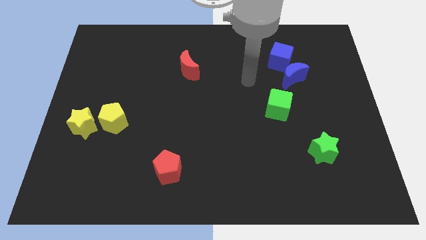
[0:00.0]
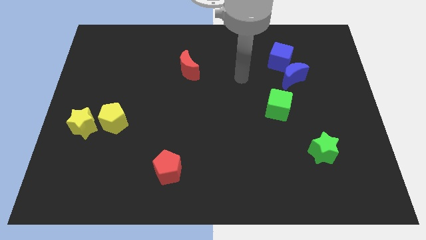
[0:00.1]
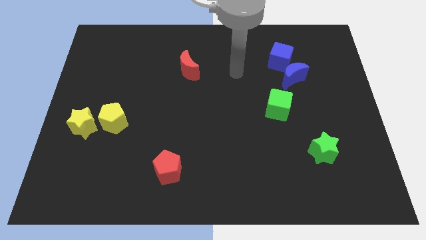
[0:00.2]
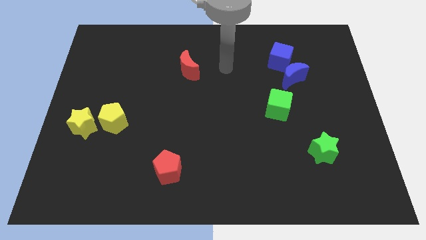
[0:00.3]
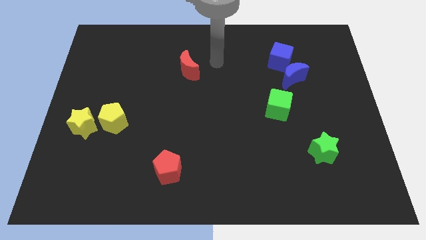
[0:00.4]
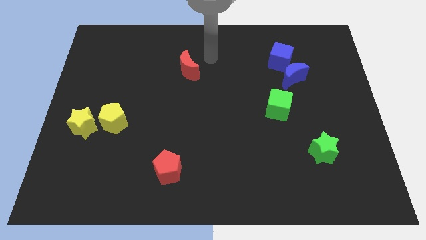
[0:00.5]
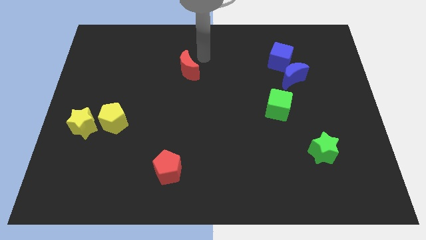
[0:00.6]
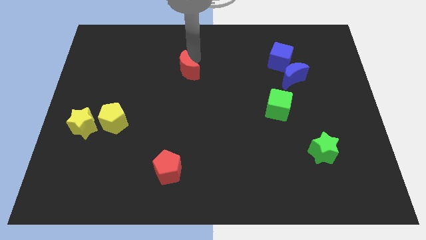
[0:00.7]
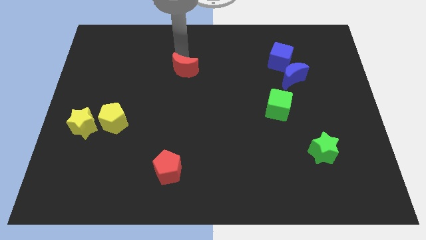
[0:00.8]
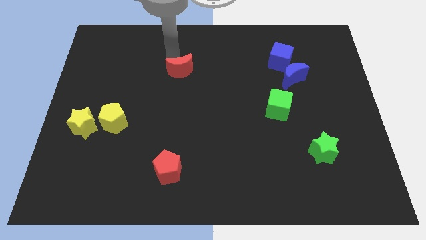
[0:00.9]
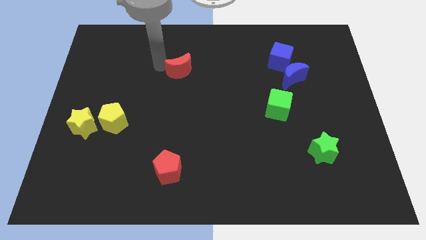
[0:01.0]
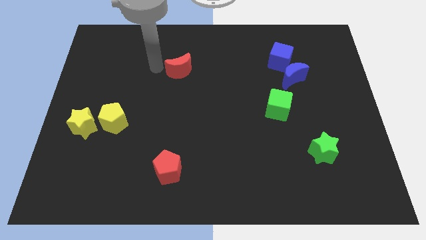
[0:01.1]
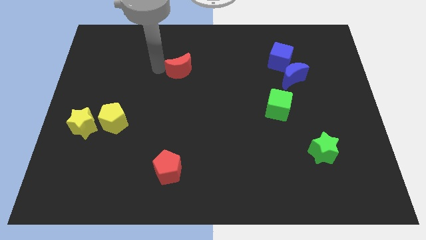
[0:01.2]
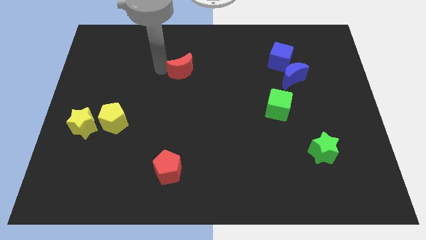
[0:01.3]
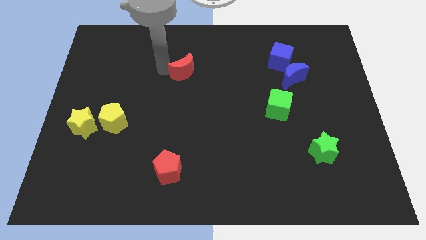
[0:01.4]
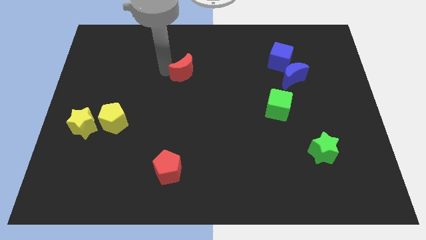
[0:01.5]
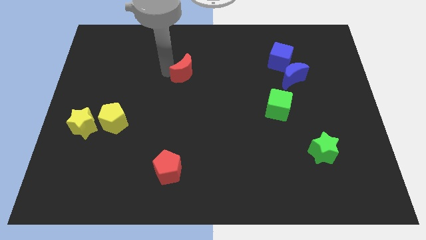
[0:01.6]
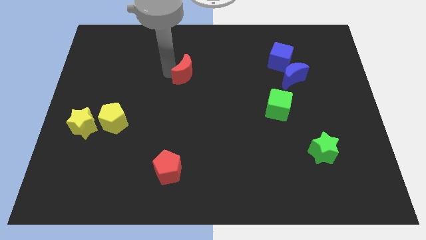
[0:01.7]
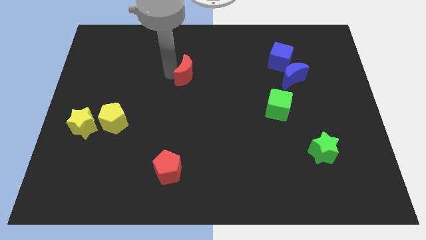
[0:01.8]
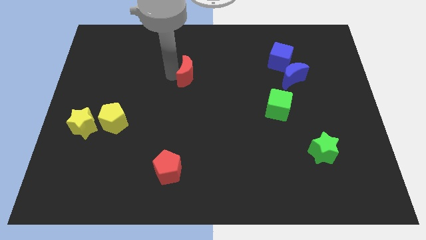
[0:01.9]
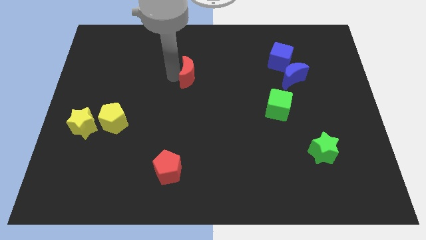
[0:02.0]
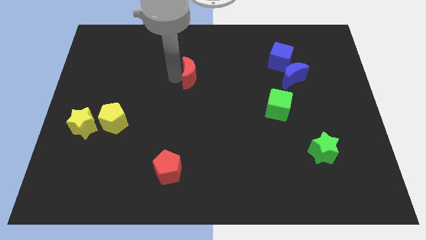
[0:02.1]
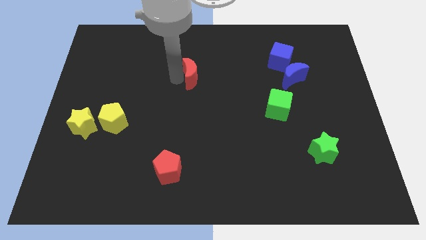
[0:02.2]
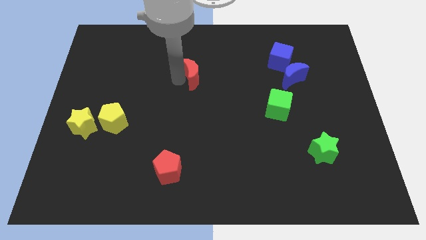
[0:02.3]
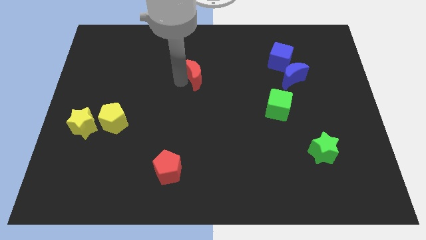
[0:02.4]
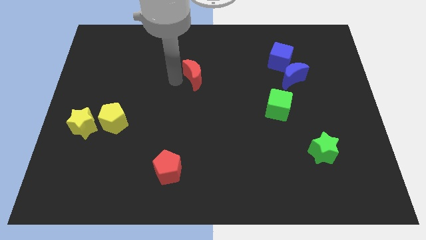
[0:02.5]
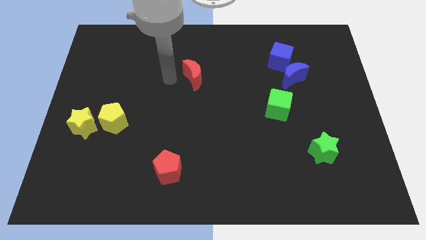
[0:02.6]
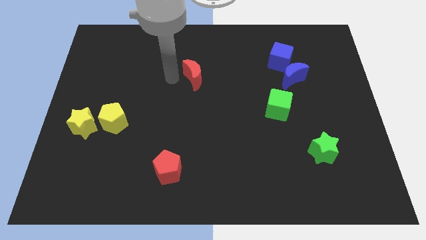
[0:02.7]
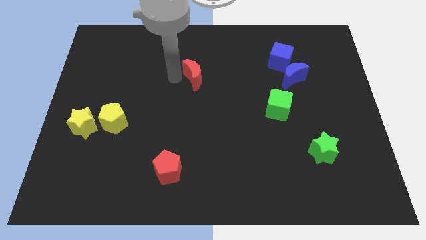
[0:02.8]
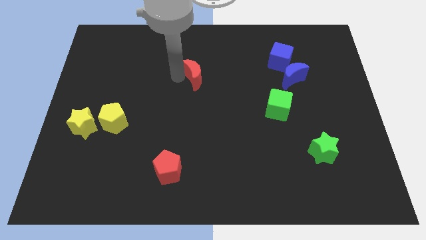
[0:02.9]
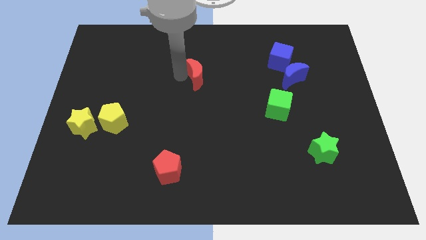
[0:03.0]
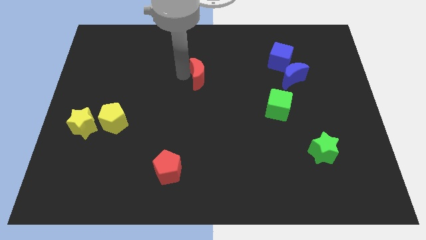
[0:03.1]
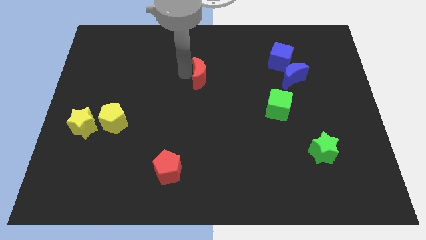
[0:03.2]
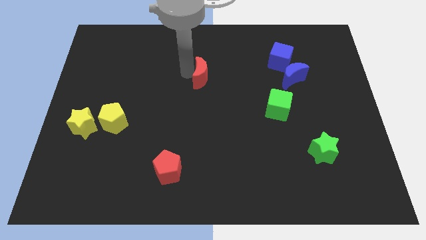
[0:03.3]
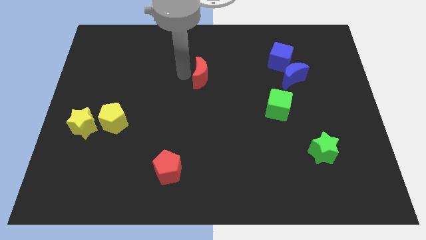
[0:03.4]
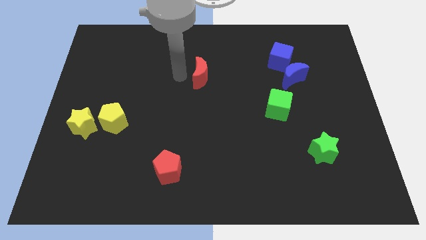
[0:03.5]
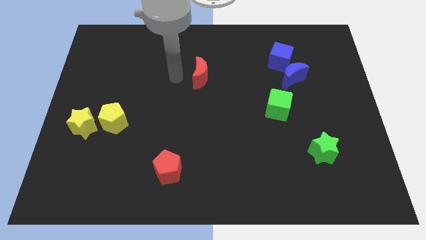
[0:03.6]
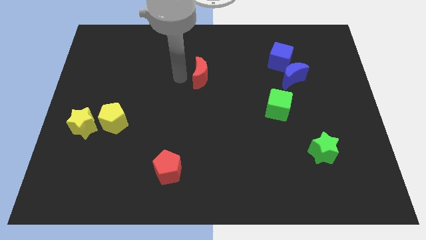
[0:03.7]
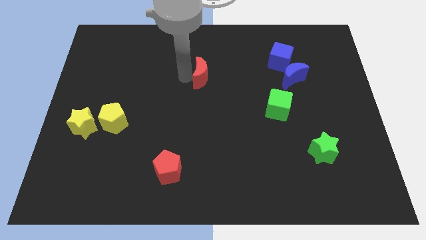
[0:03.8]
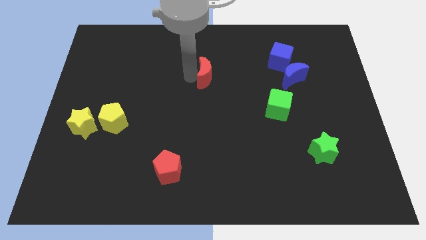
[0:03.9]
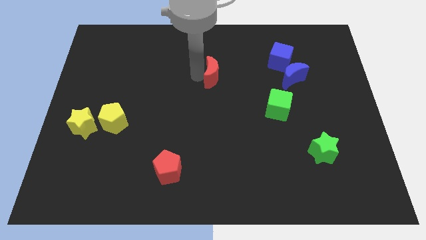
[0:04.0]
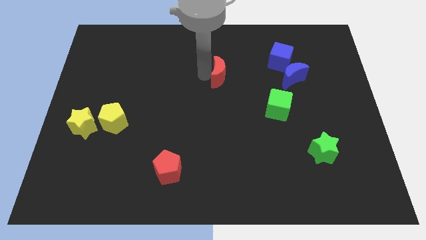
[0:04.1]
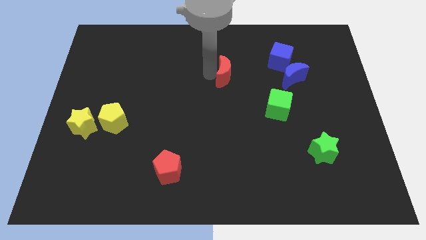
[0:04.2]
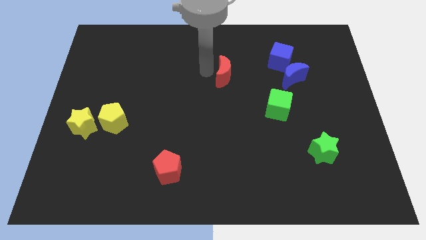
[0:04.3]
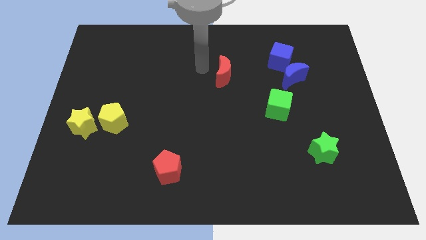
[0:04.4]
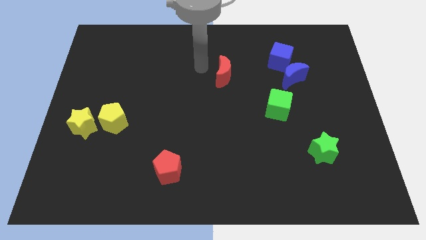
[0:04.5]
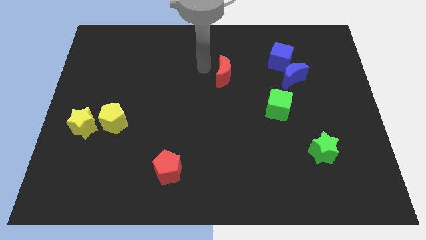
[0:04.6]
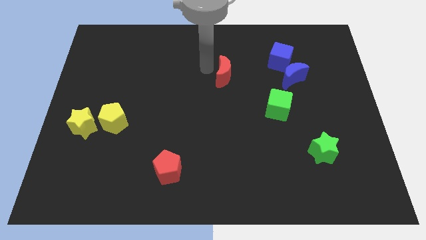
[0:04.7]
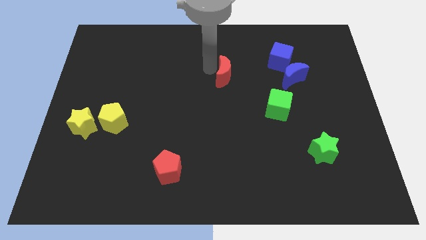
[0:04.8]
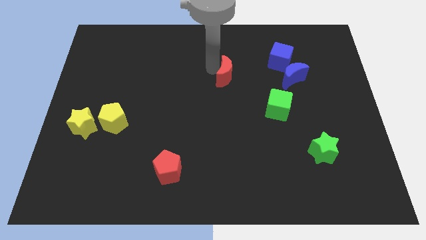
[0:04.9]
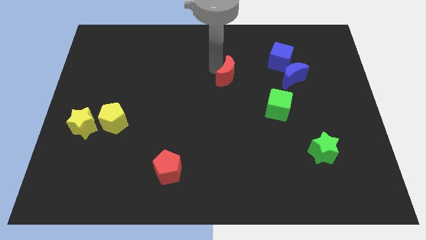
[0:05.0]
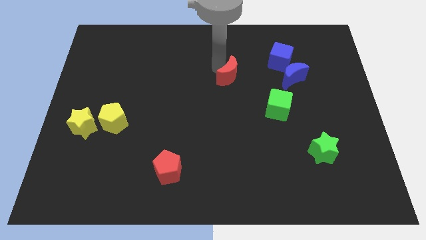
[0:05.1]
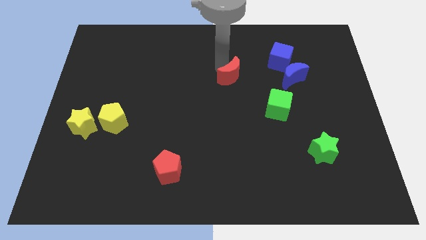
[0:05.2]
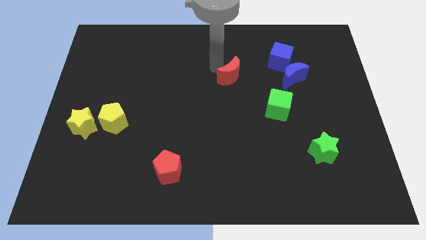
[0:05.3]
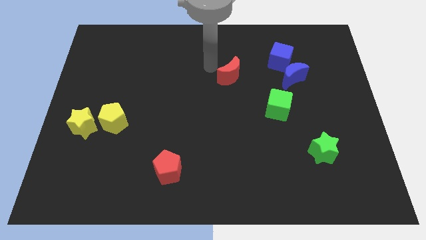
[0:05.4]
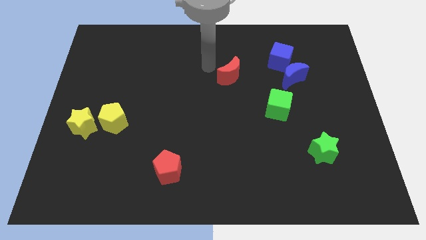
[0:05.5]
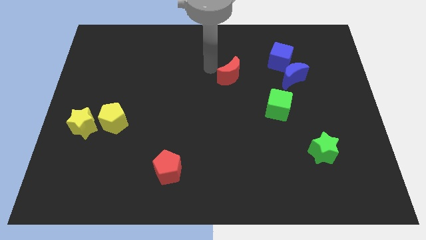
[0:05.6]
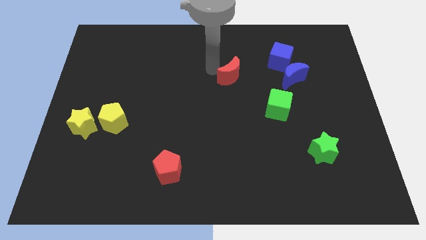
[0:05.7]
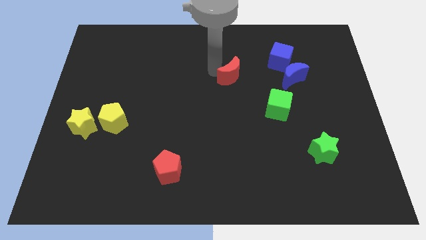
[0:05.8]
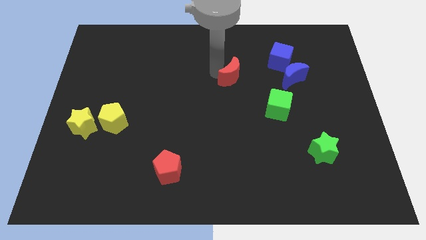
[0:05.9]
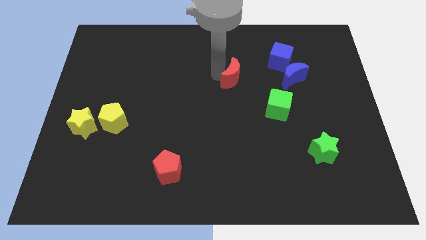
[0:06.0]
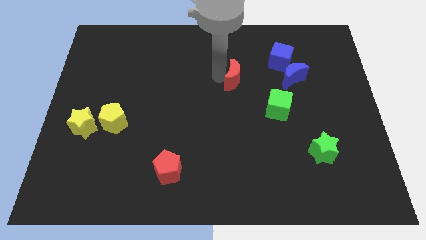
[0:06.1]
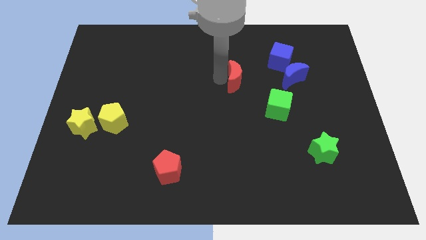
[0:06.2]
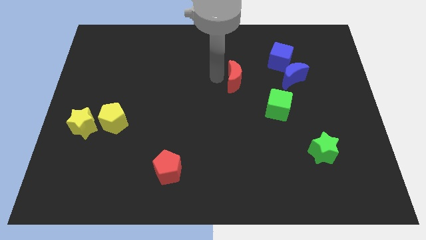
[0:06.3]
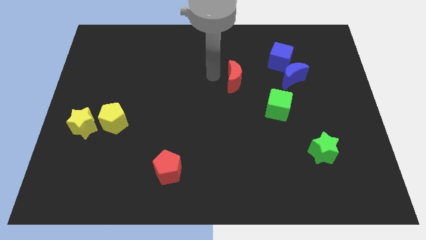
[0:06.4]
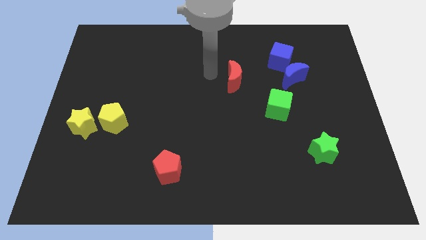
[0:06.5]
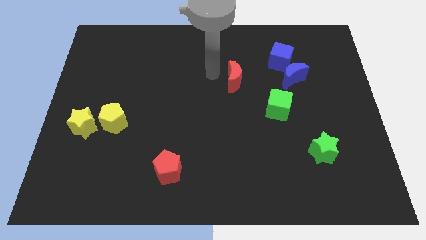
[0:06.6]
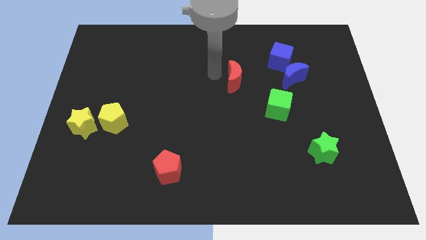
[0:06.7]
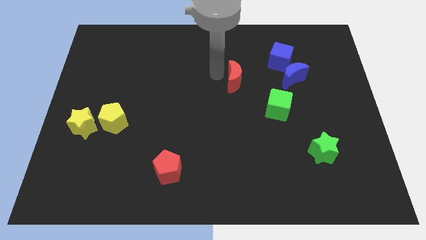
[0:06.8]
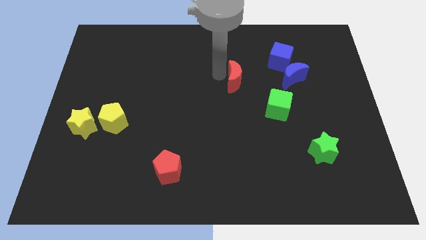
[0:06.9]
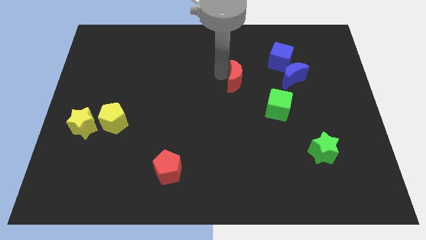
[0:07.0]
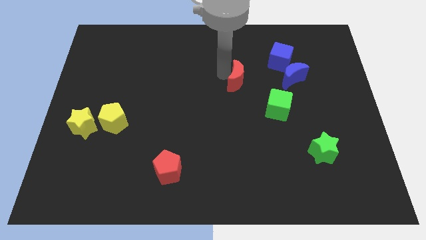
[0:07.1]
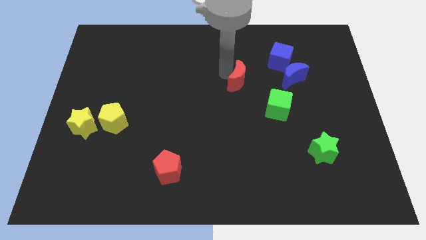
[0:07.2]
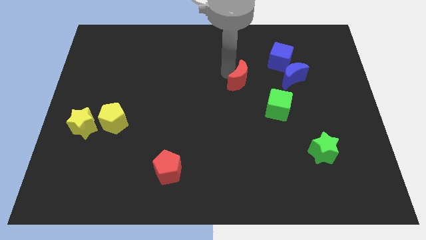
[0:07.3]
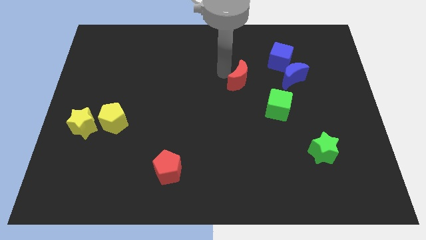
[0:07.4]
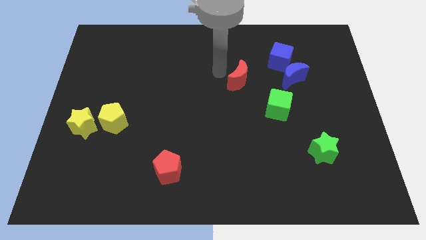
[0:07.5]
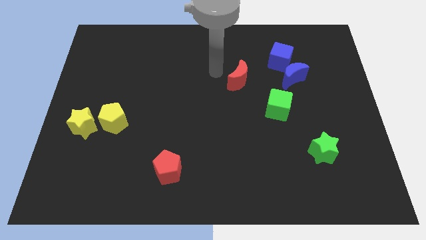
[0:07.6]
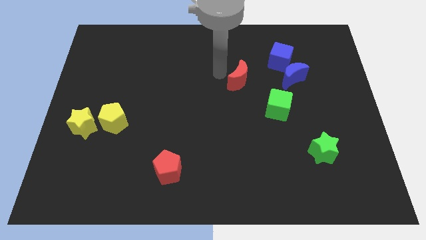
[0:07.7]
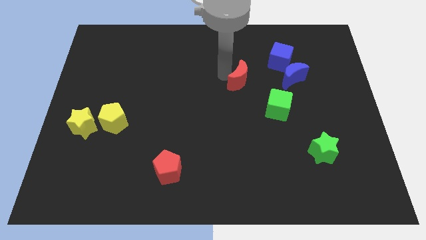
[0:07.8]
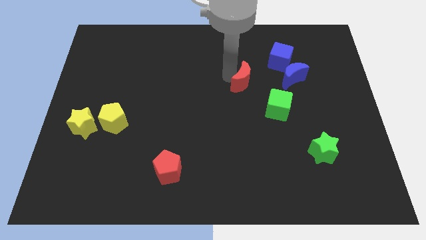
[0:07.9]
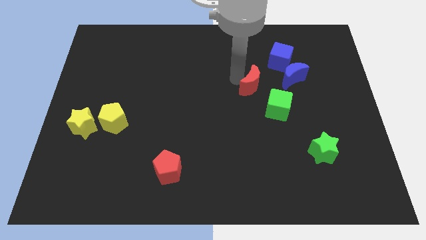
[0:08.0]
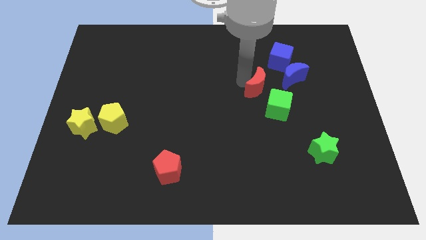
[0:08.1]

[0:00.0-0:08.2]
push the red moon to the bottom left of the blue moon

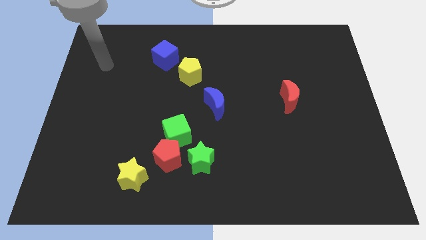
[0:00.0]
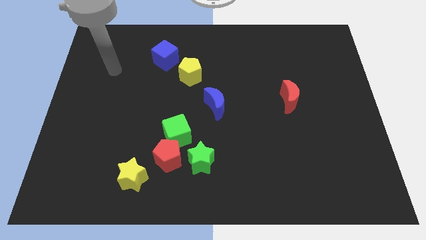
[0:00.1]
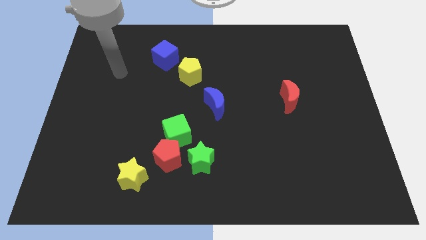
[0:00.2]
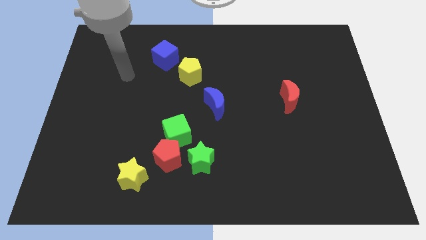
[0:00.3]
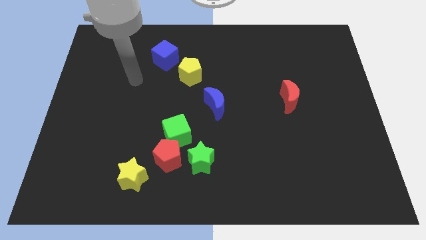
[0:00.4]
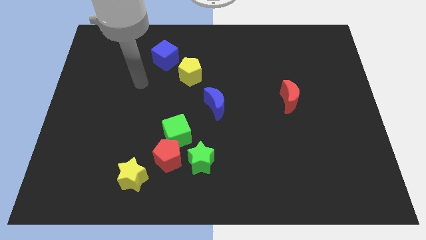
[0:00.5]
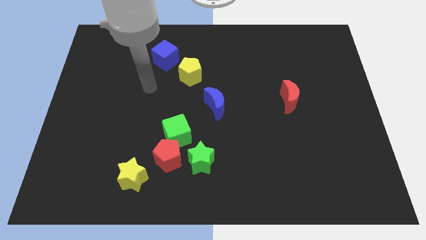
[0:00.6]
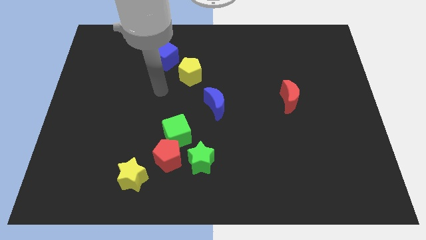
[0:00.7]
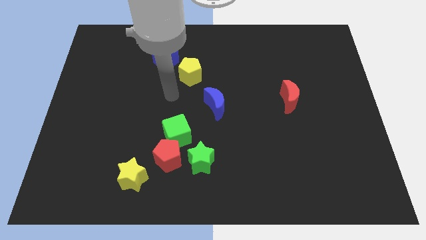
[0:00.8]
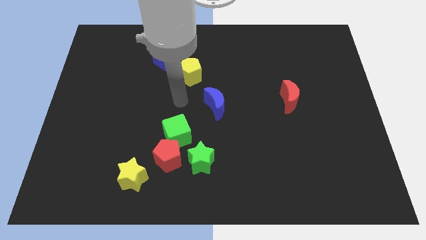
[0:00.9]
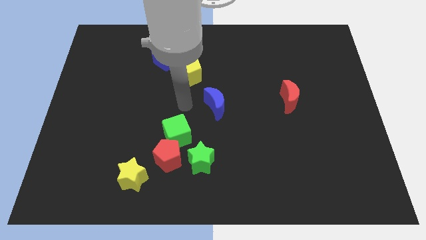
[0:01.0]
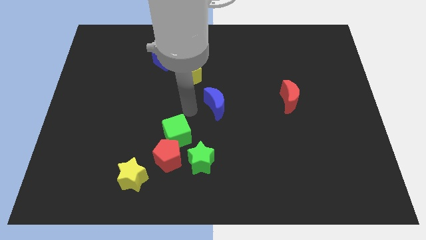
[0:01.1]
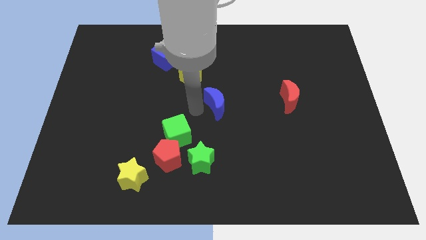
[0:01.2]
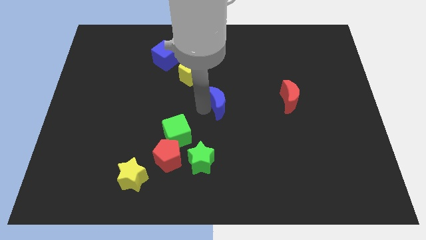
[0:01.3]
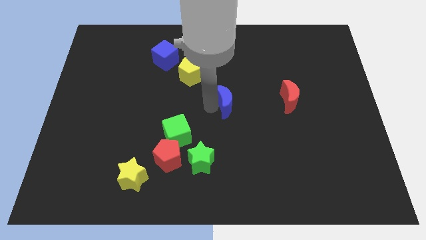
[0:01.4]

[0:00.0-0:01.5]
push the blue moon left of the red moon
